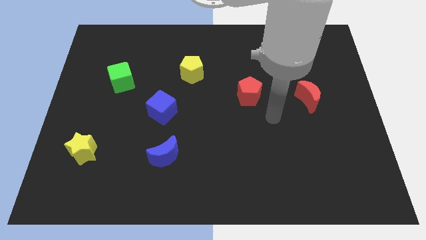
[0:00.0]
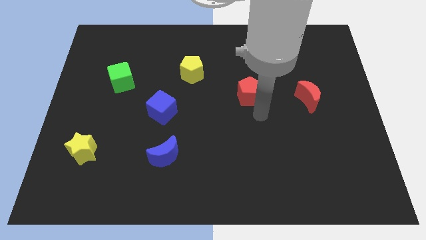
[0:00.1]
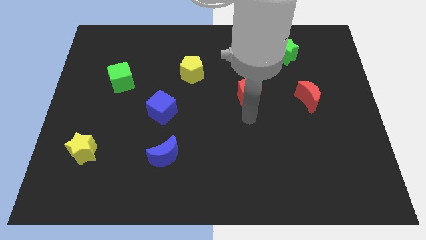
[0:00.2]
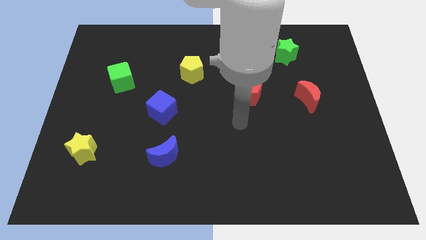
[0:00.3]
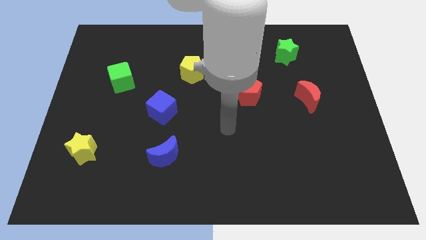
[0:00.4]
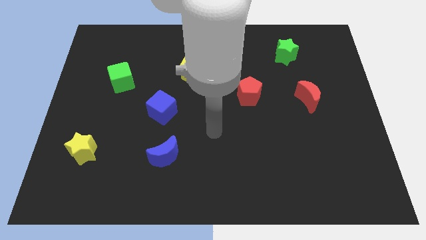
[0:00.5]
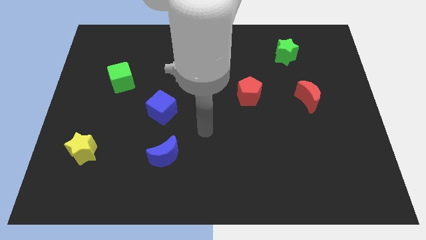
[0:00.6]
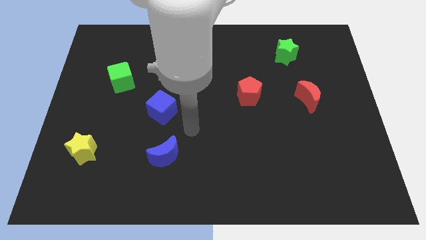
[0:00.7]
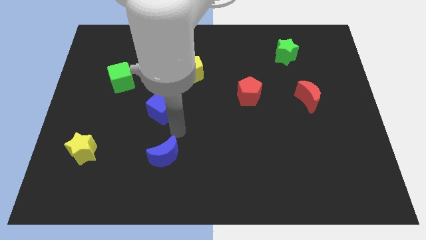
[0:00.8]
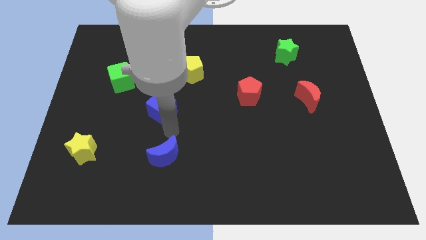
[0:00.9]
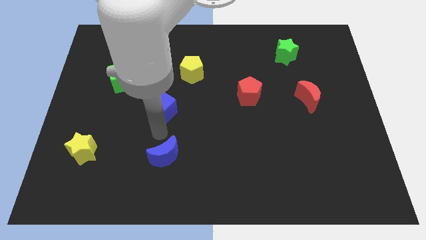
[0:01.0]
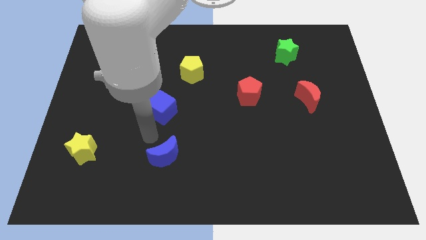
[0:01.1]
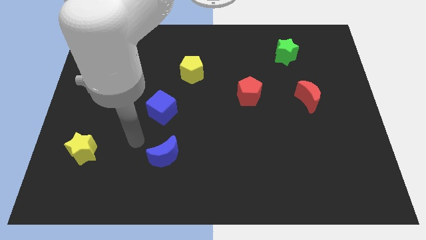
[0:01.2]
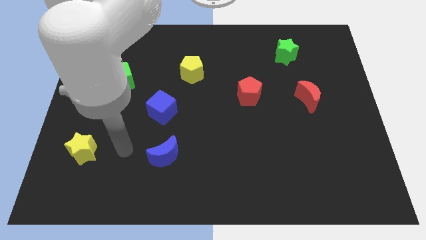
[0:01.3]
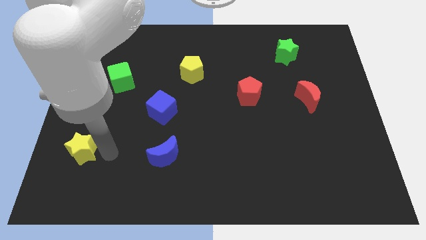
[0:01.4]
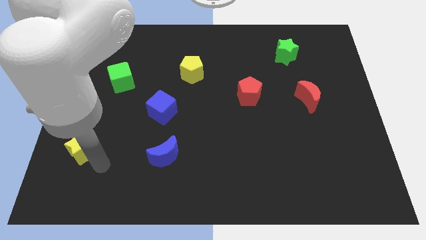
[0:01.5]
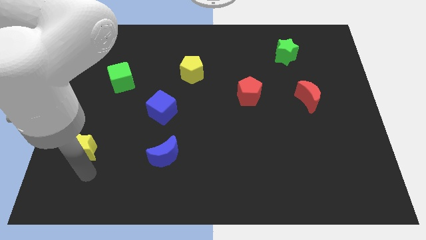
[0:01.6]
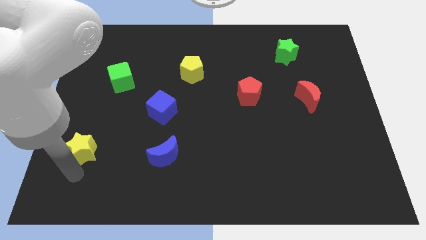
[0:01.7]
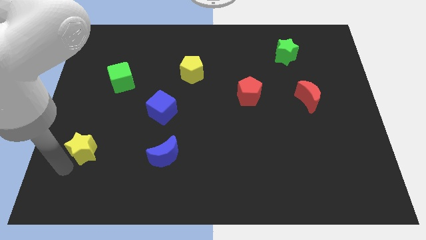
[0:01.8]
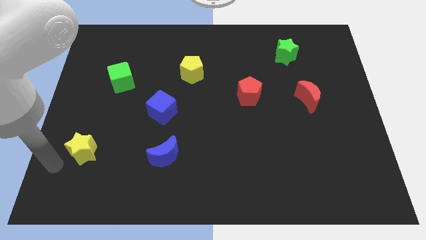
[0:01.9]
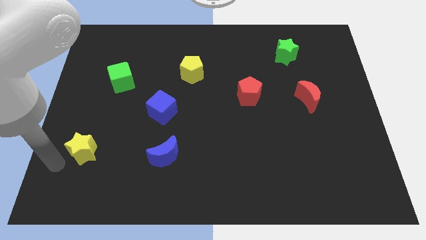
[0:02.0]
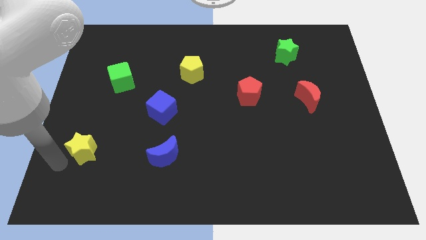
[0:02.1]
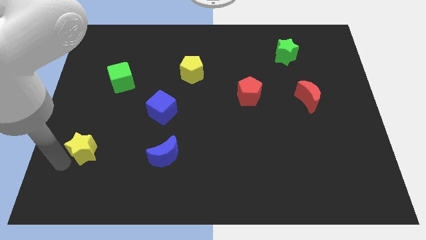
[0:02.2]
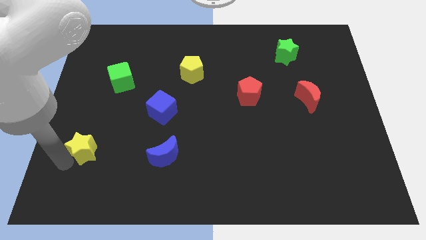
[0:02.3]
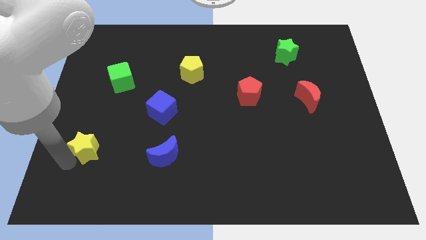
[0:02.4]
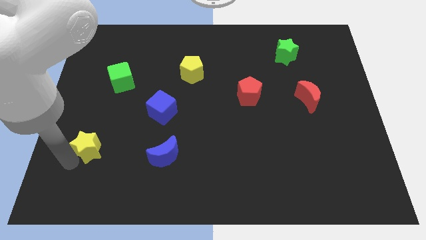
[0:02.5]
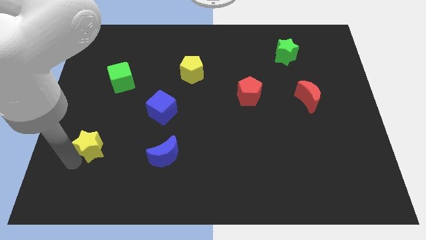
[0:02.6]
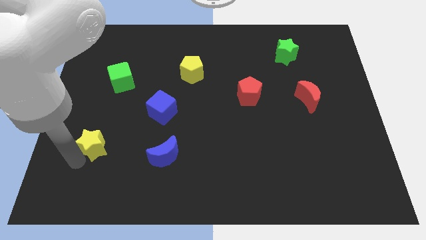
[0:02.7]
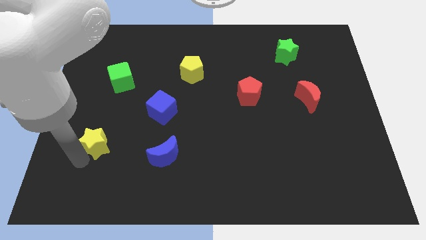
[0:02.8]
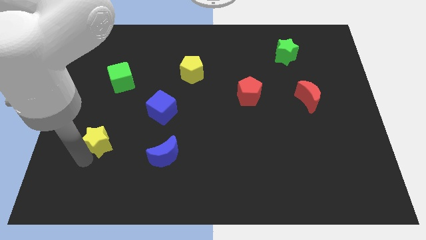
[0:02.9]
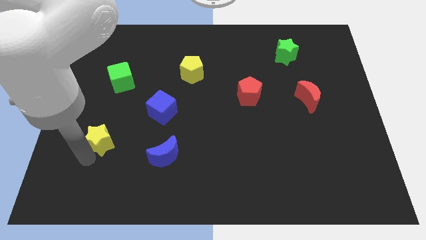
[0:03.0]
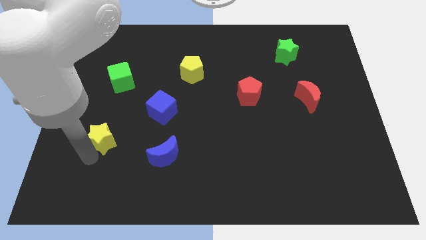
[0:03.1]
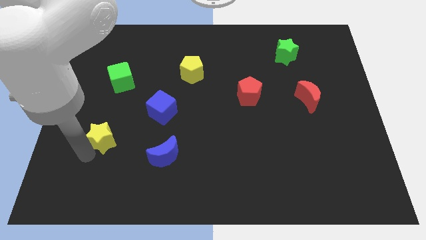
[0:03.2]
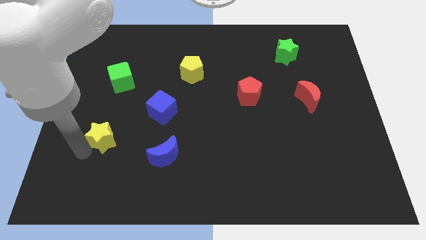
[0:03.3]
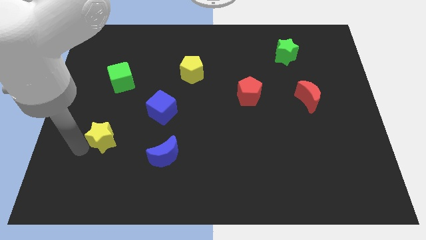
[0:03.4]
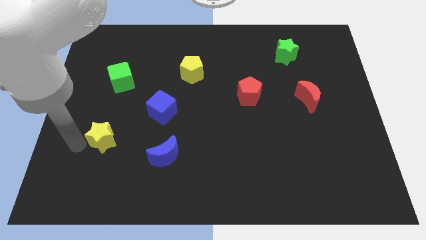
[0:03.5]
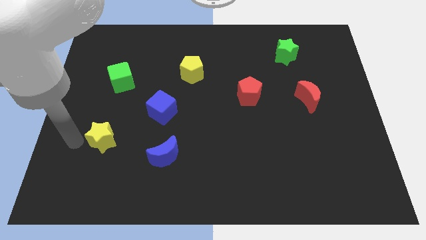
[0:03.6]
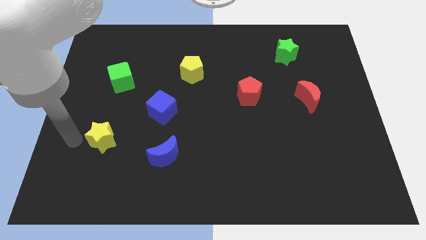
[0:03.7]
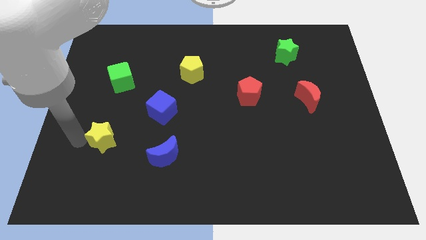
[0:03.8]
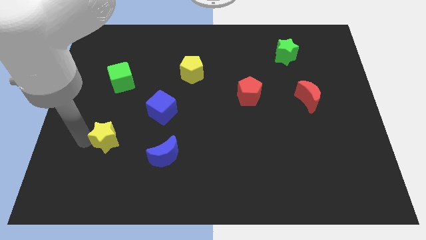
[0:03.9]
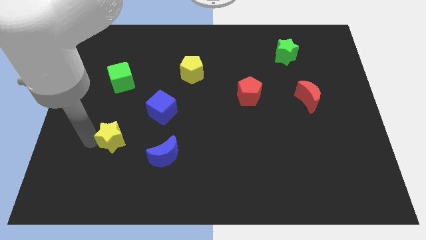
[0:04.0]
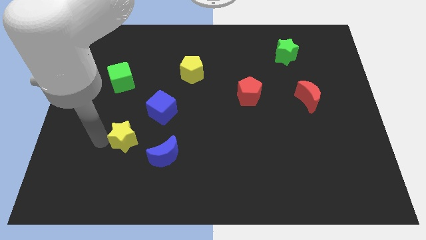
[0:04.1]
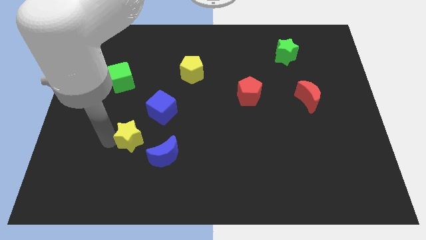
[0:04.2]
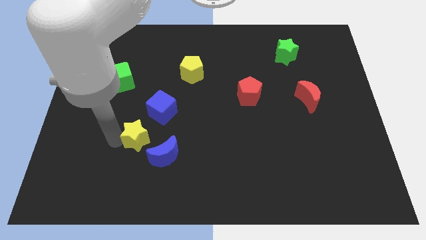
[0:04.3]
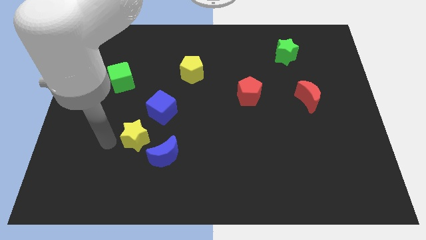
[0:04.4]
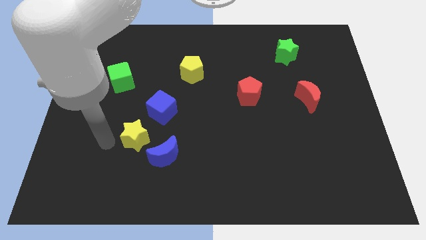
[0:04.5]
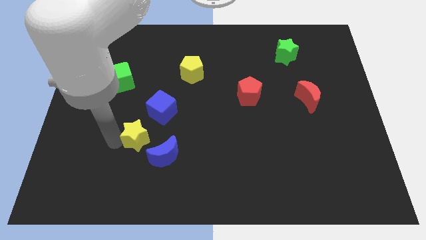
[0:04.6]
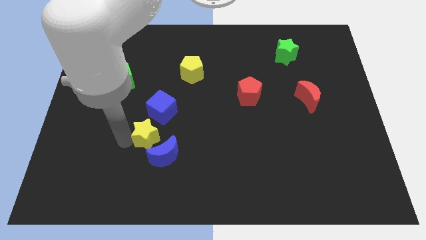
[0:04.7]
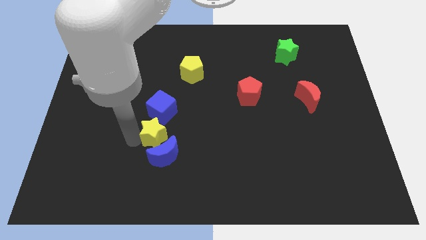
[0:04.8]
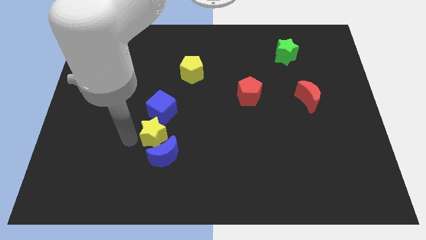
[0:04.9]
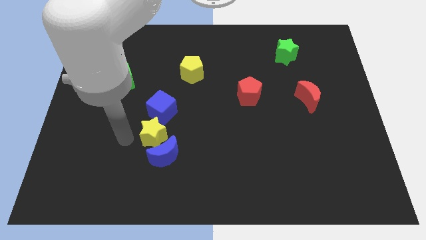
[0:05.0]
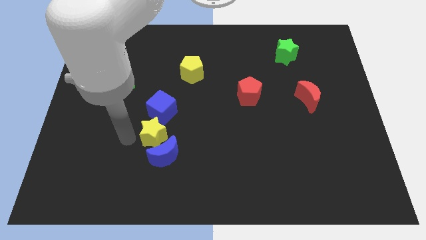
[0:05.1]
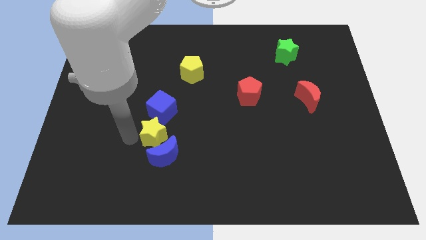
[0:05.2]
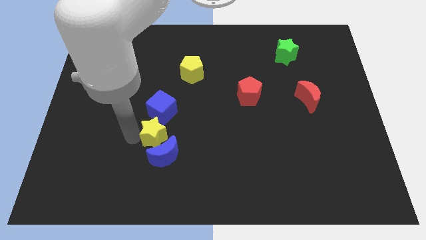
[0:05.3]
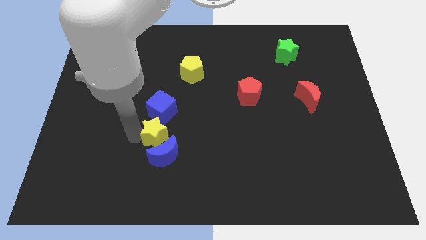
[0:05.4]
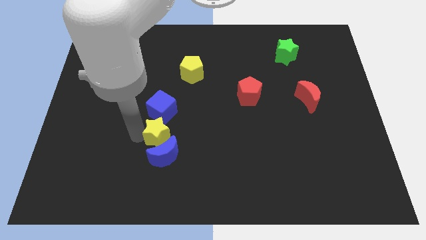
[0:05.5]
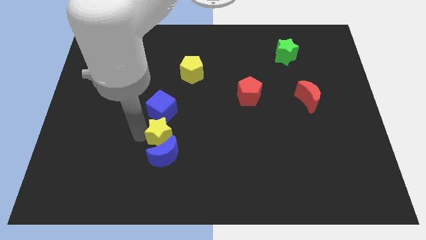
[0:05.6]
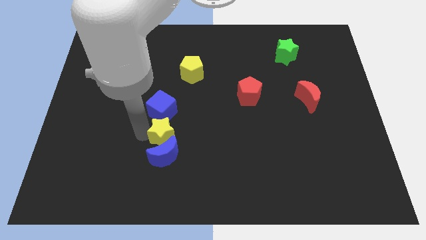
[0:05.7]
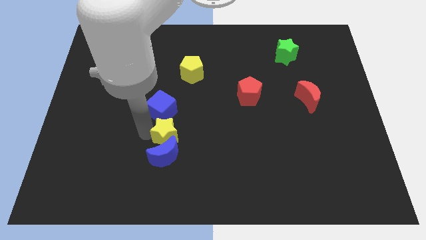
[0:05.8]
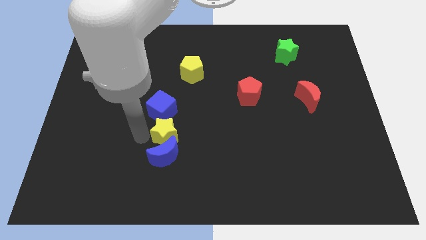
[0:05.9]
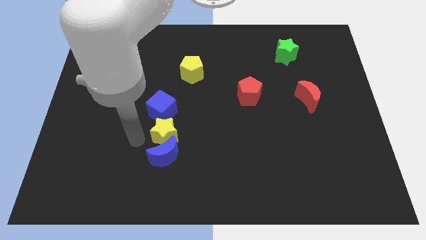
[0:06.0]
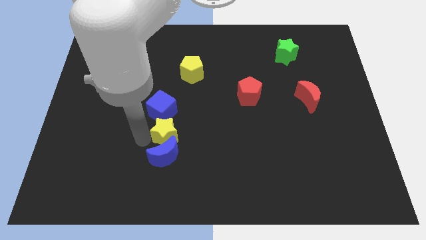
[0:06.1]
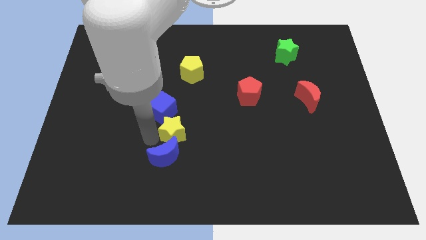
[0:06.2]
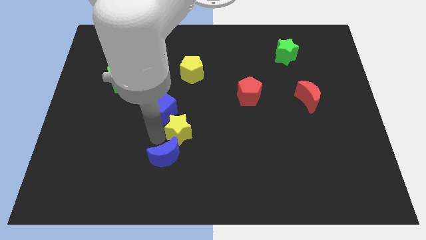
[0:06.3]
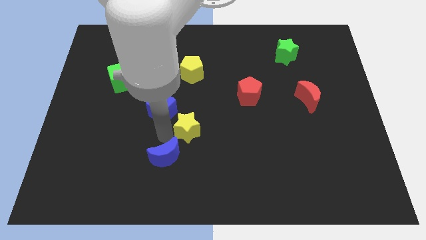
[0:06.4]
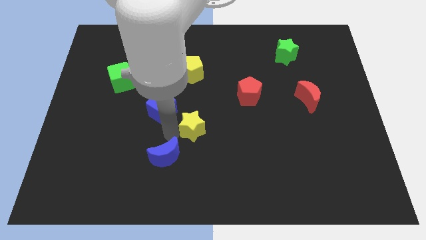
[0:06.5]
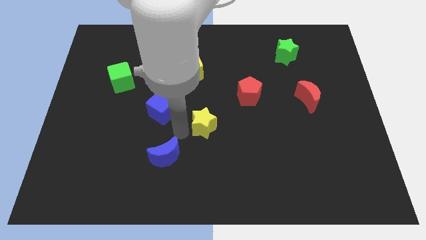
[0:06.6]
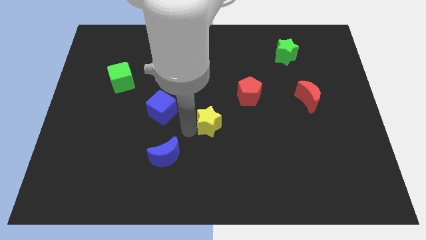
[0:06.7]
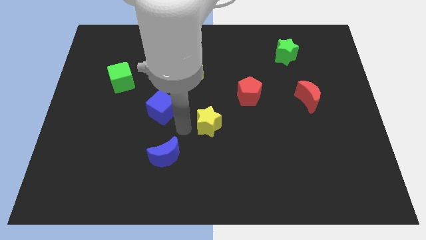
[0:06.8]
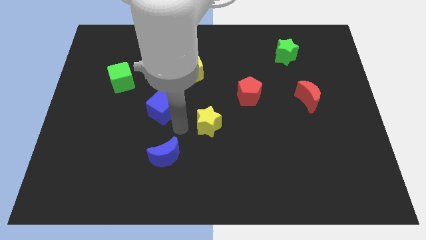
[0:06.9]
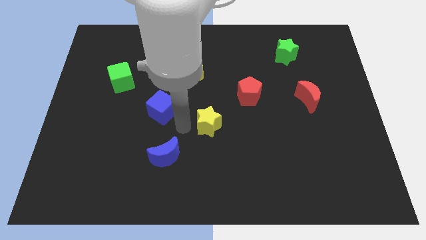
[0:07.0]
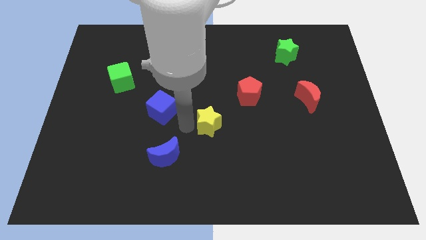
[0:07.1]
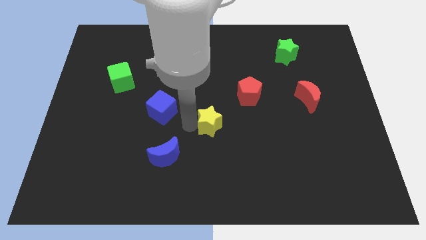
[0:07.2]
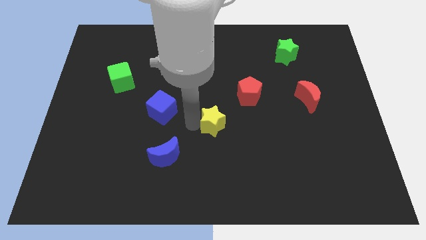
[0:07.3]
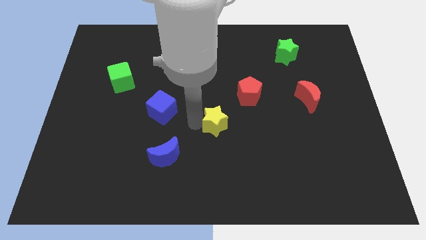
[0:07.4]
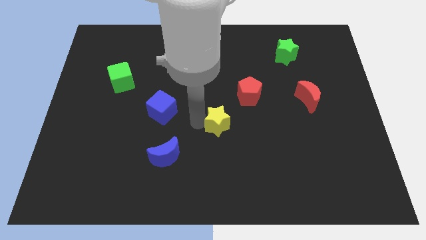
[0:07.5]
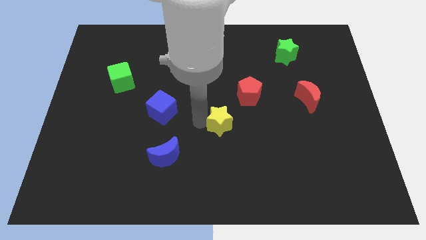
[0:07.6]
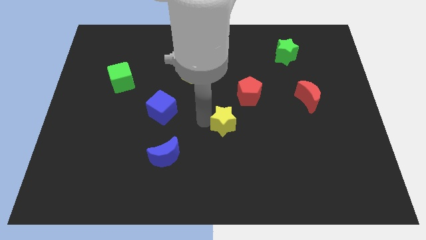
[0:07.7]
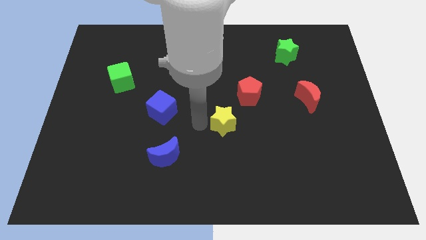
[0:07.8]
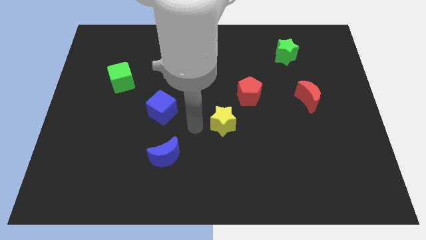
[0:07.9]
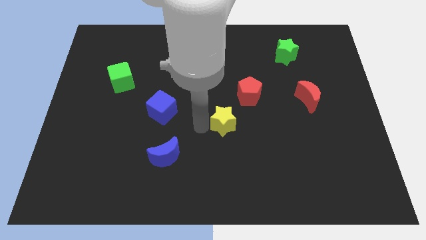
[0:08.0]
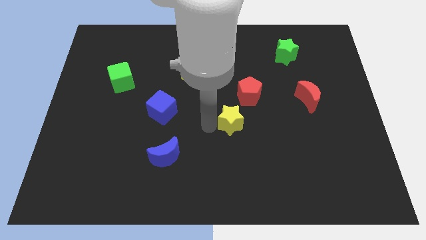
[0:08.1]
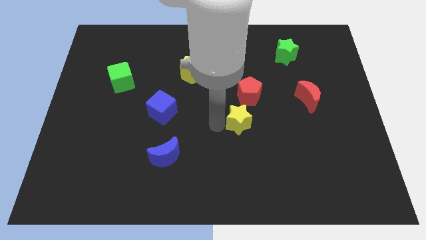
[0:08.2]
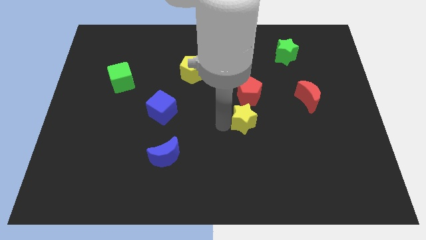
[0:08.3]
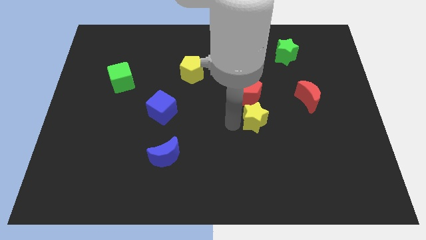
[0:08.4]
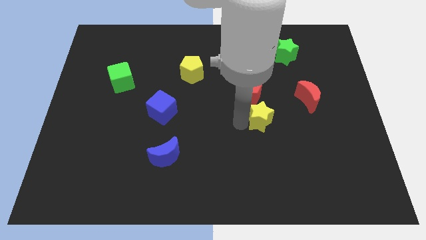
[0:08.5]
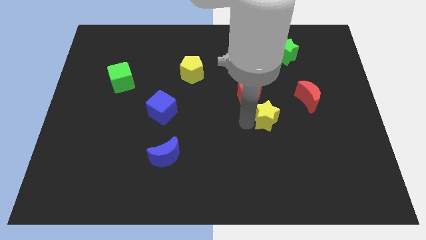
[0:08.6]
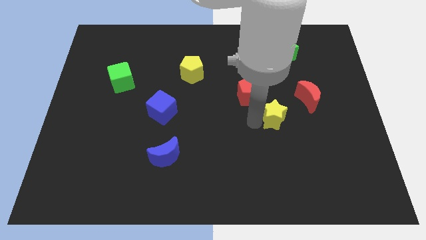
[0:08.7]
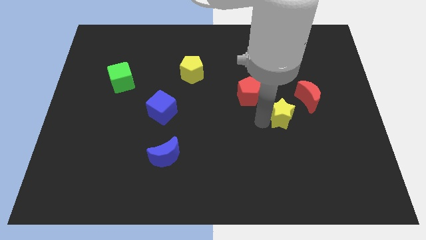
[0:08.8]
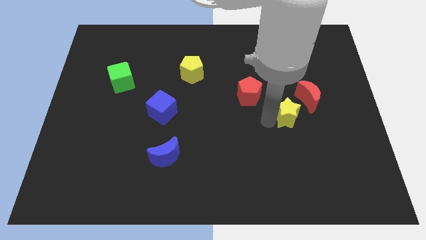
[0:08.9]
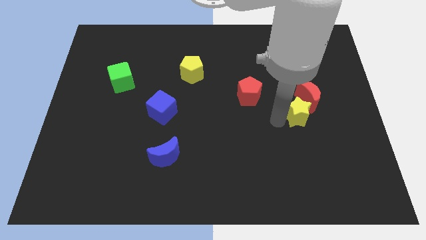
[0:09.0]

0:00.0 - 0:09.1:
push the yellow star to the red moon
